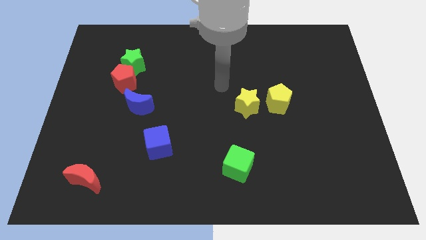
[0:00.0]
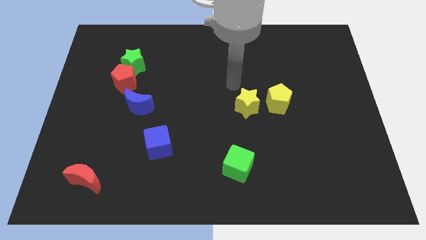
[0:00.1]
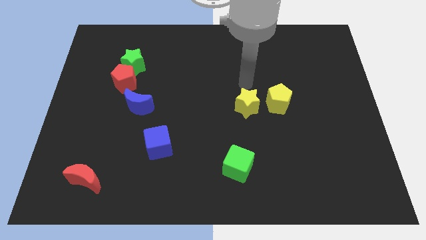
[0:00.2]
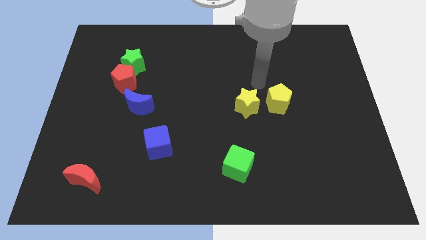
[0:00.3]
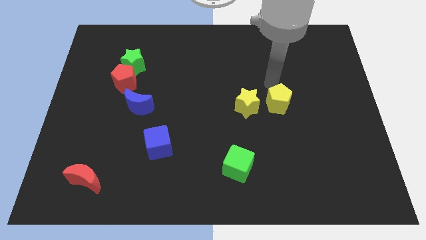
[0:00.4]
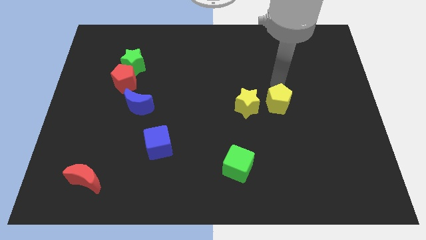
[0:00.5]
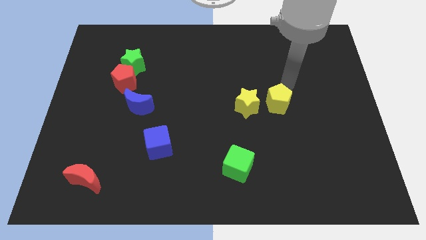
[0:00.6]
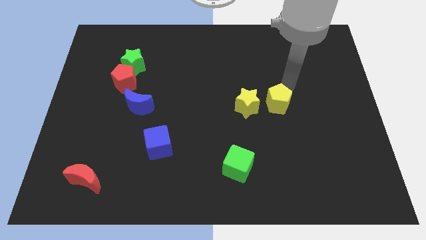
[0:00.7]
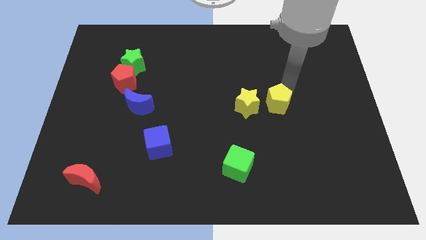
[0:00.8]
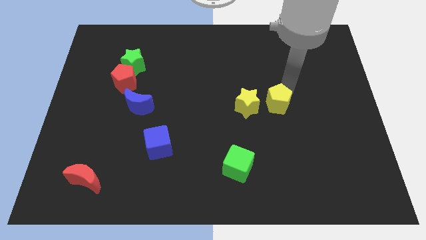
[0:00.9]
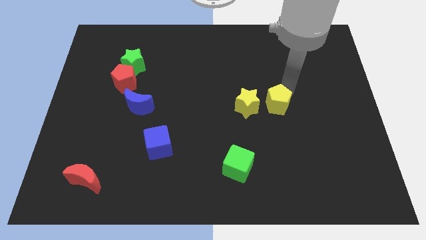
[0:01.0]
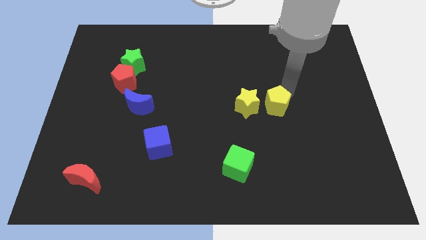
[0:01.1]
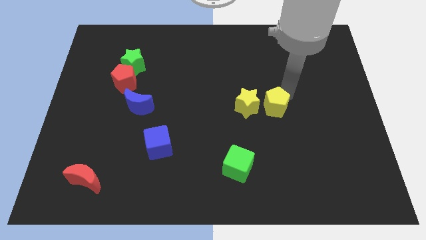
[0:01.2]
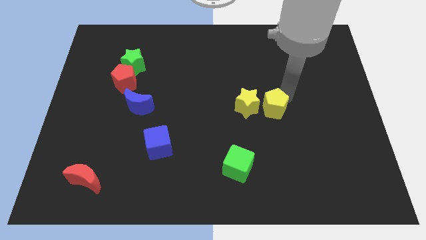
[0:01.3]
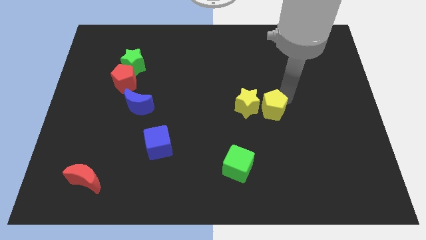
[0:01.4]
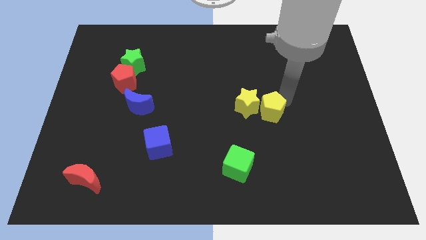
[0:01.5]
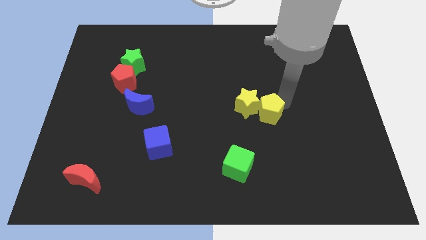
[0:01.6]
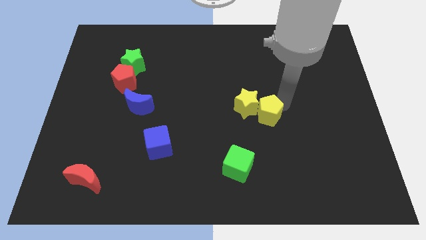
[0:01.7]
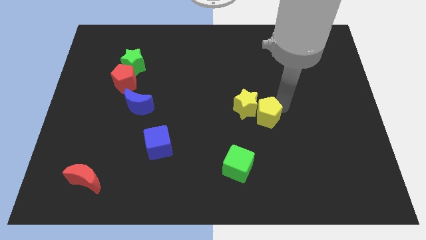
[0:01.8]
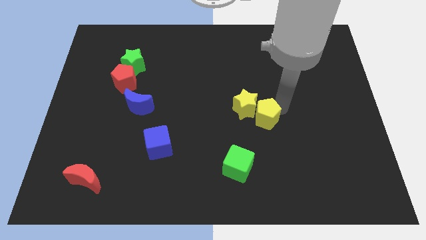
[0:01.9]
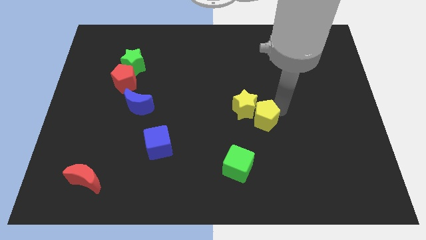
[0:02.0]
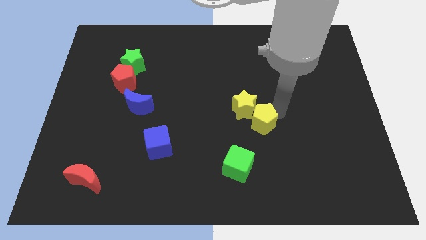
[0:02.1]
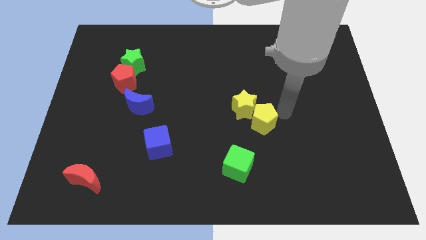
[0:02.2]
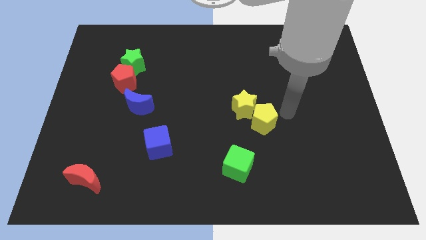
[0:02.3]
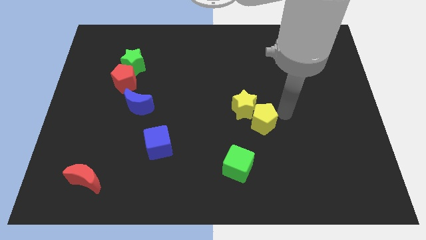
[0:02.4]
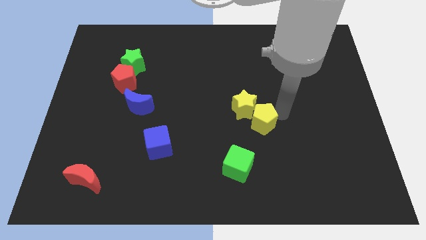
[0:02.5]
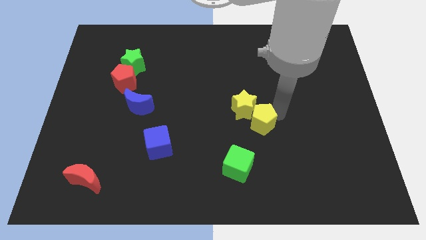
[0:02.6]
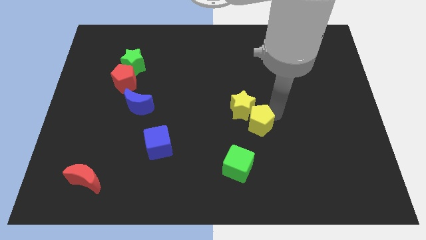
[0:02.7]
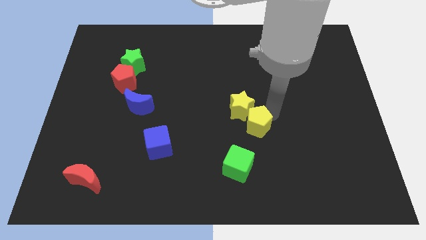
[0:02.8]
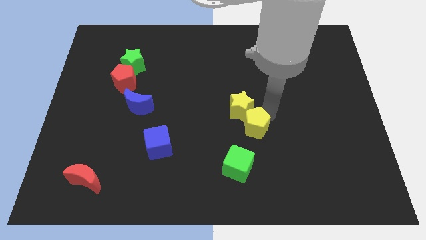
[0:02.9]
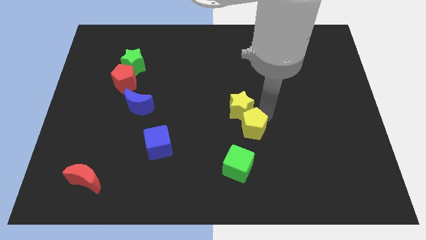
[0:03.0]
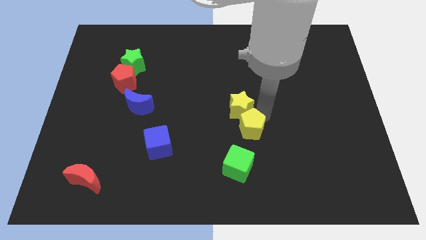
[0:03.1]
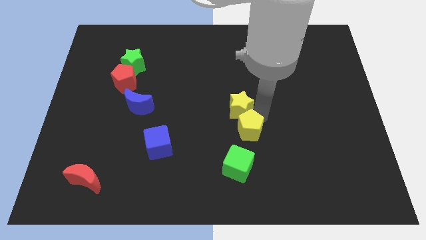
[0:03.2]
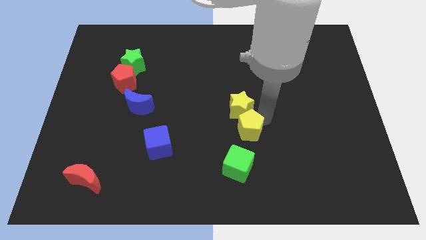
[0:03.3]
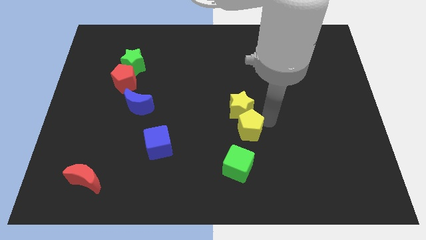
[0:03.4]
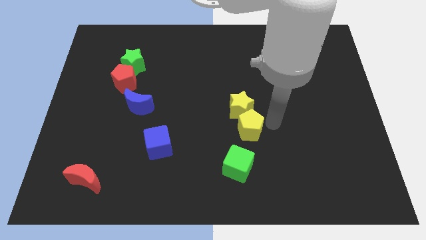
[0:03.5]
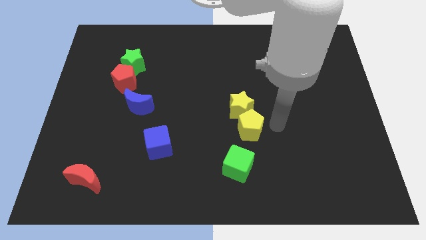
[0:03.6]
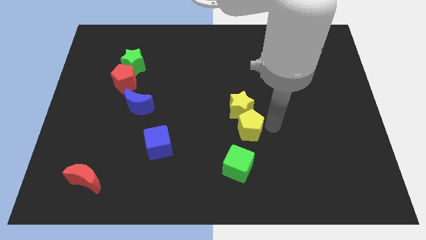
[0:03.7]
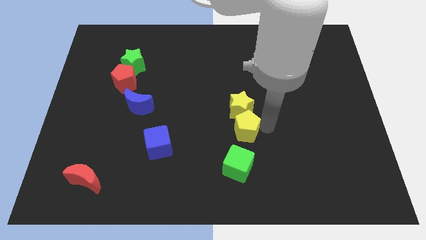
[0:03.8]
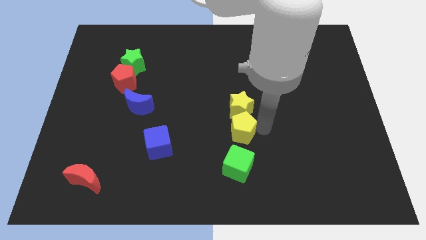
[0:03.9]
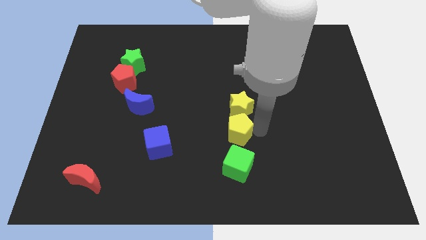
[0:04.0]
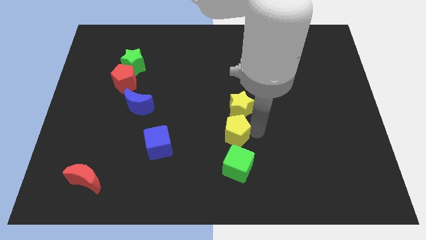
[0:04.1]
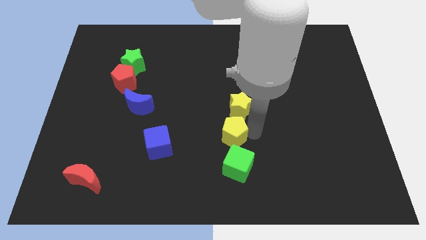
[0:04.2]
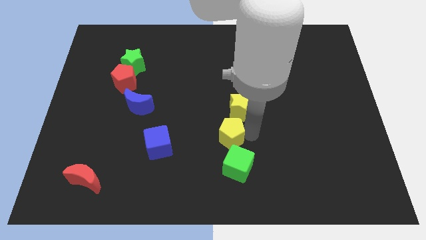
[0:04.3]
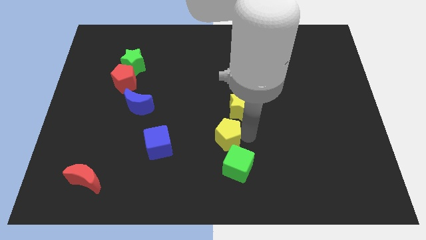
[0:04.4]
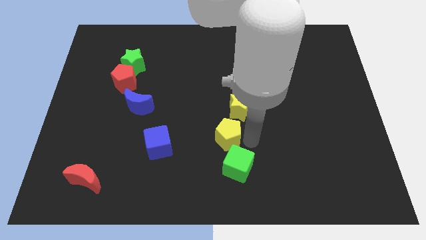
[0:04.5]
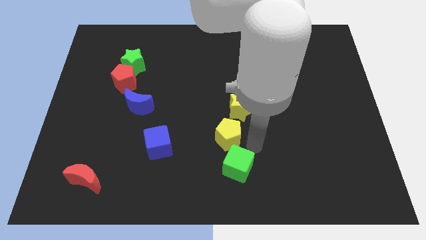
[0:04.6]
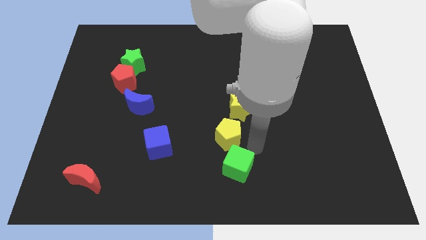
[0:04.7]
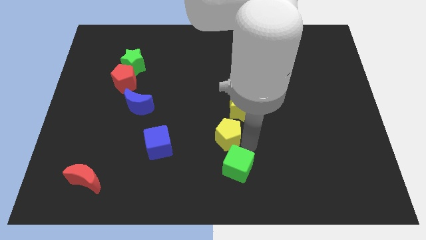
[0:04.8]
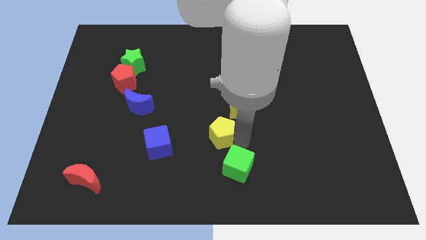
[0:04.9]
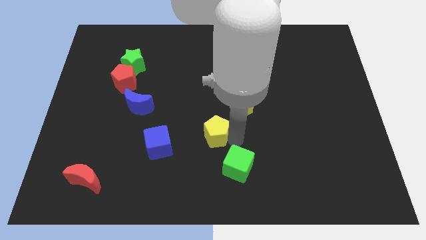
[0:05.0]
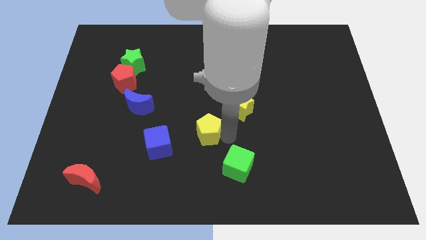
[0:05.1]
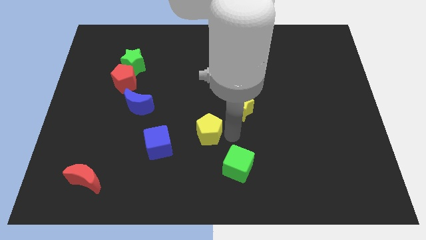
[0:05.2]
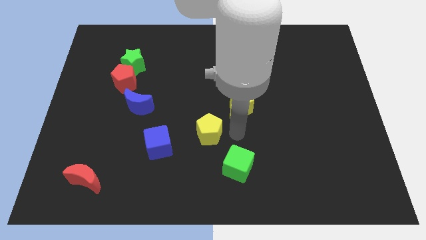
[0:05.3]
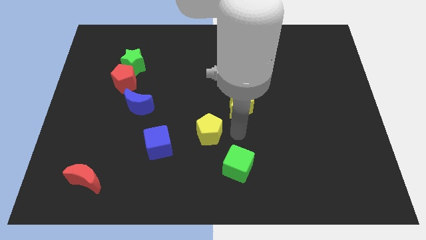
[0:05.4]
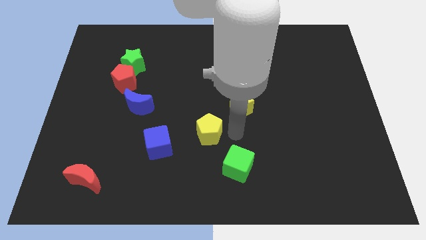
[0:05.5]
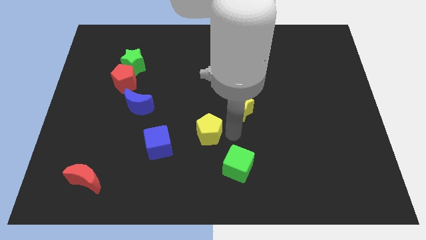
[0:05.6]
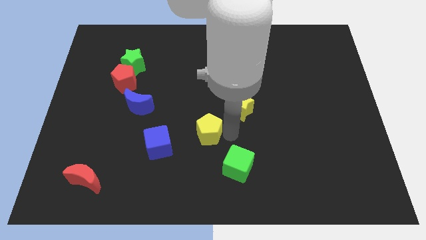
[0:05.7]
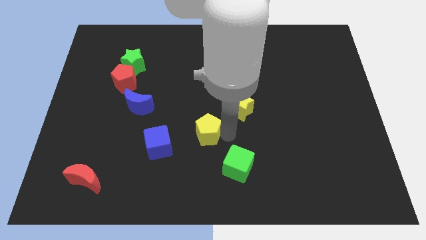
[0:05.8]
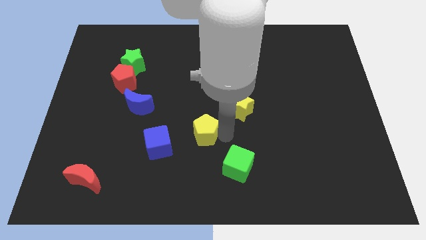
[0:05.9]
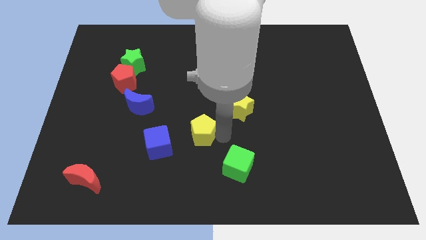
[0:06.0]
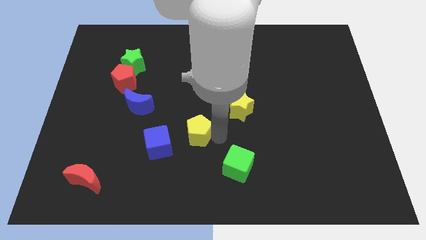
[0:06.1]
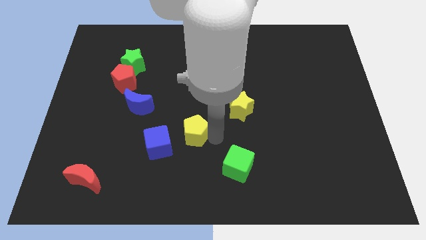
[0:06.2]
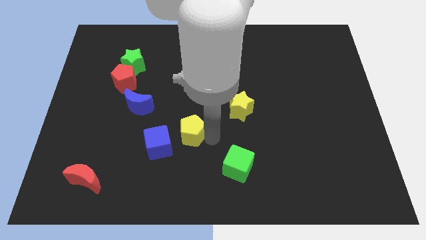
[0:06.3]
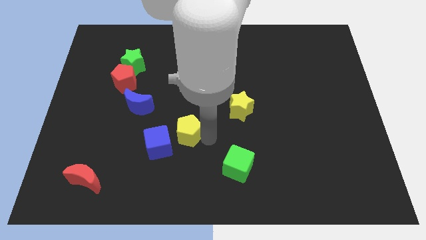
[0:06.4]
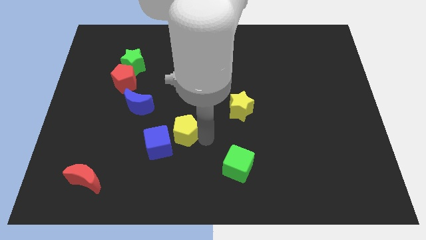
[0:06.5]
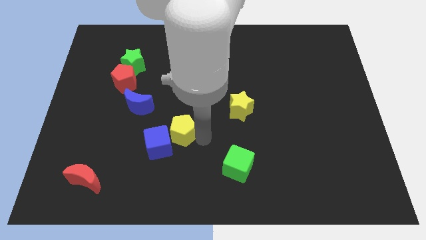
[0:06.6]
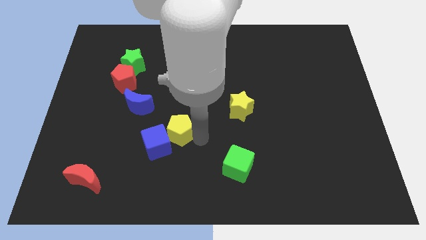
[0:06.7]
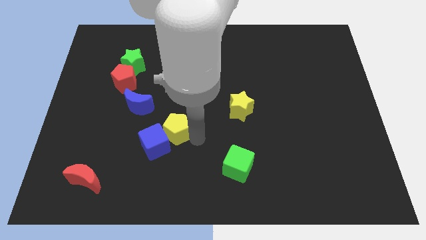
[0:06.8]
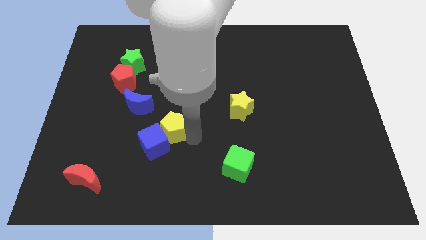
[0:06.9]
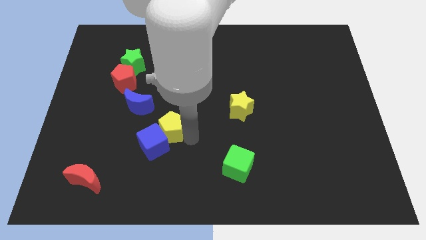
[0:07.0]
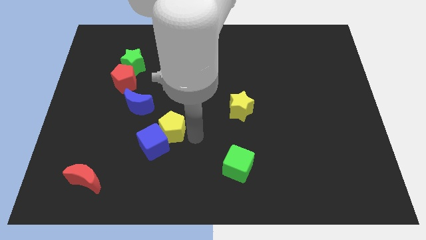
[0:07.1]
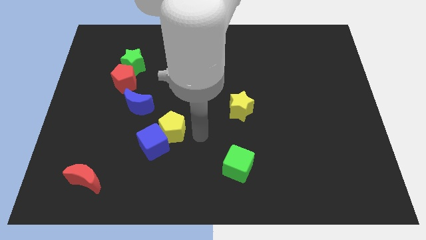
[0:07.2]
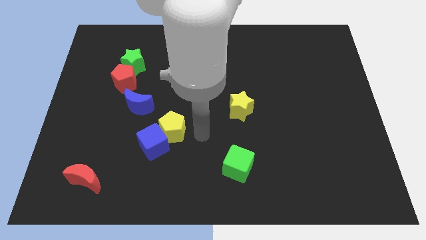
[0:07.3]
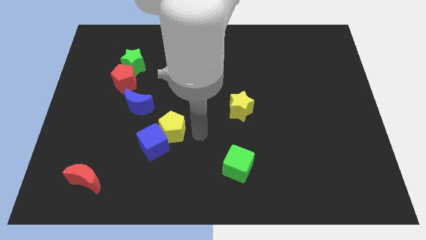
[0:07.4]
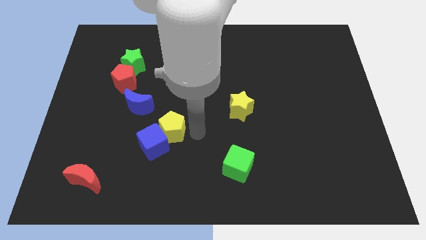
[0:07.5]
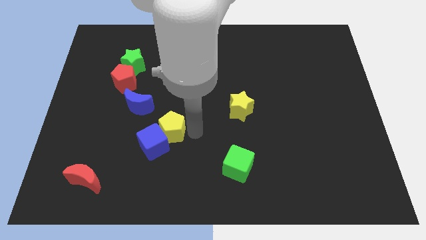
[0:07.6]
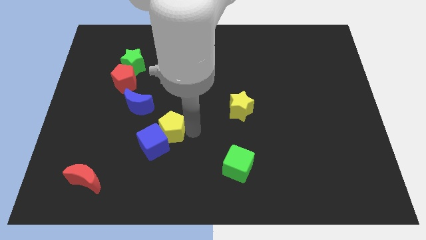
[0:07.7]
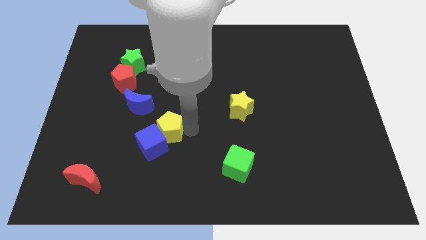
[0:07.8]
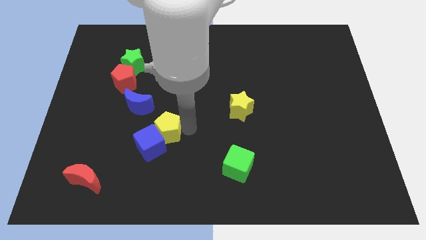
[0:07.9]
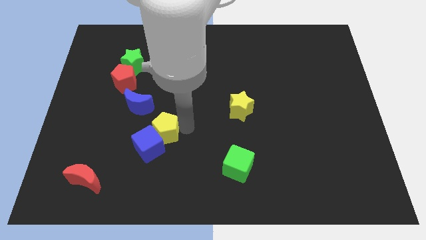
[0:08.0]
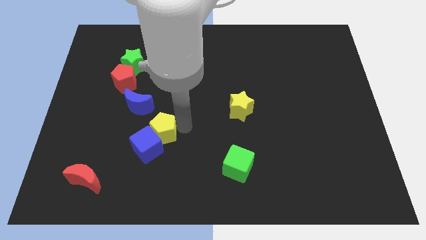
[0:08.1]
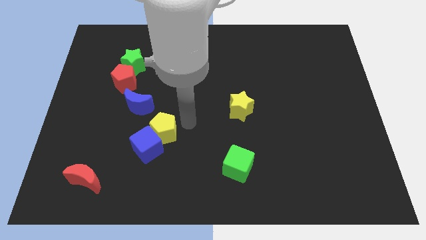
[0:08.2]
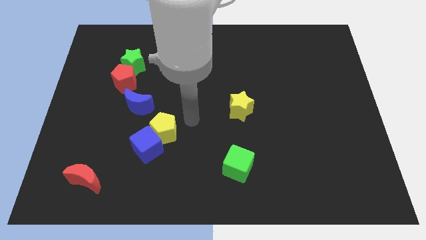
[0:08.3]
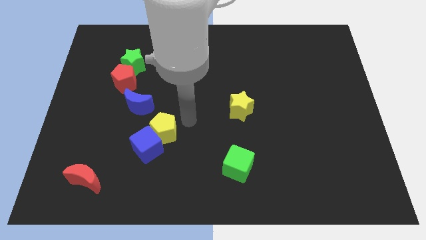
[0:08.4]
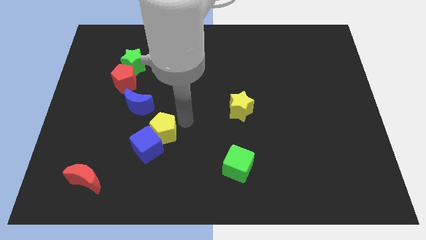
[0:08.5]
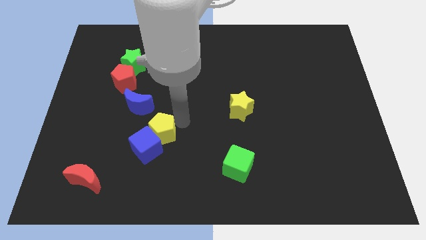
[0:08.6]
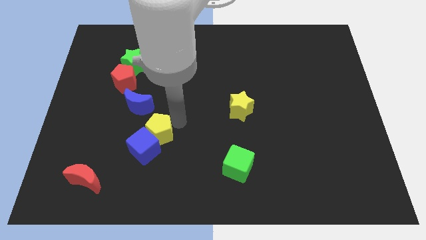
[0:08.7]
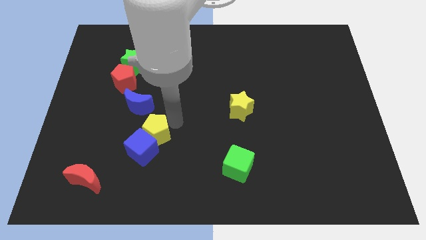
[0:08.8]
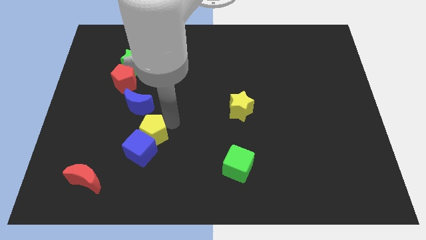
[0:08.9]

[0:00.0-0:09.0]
push the yellow pentagon below the blue moon
